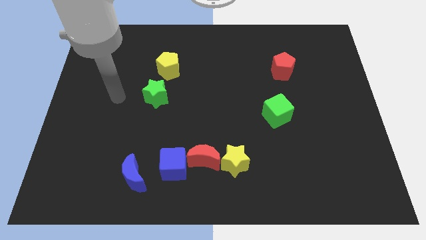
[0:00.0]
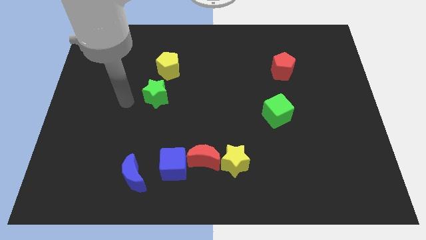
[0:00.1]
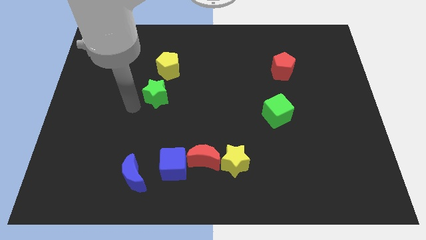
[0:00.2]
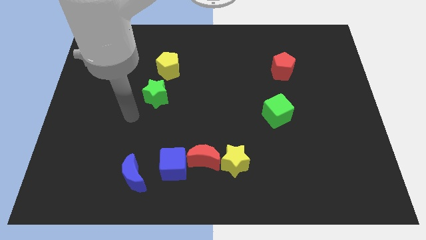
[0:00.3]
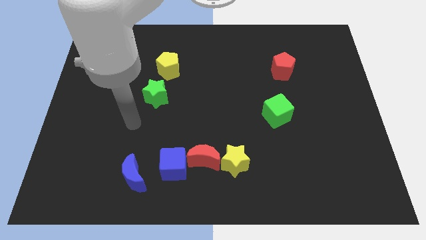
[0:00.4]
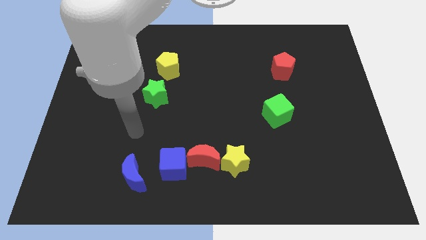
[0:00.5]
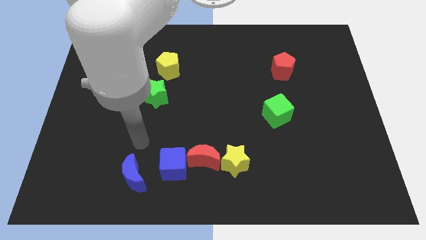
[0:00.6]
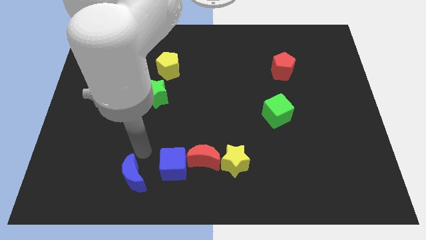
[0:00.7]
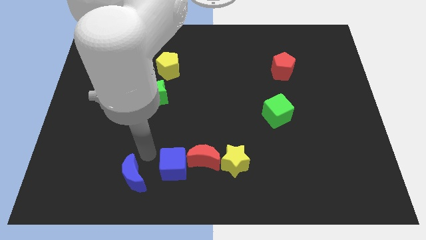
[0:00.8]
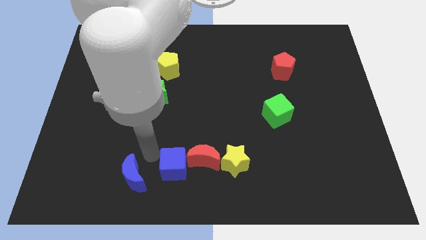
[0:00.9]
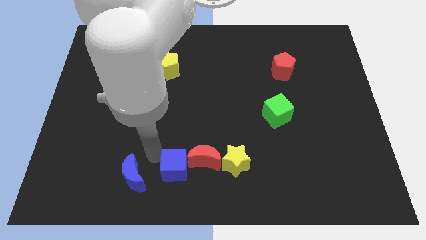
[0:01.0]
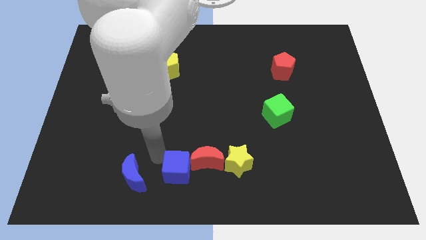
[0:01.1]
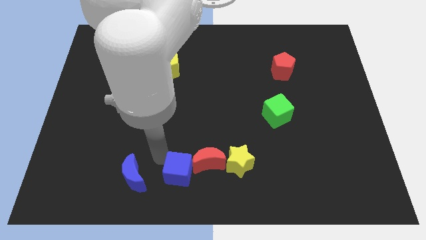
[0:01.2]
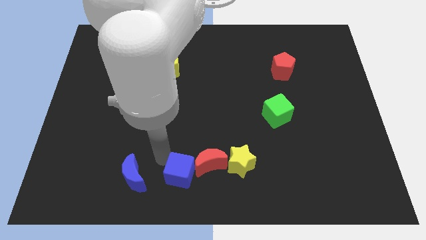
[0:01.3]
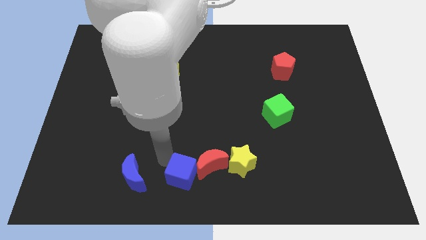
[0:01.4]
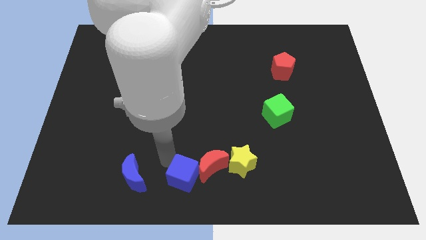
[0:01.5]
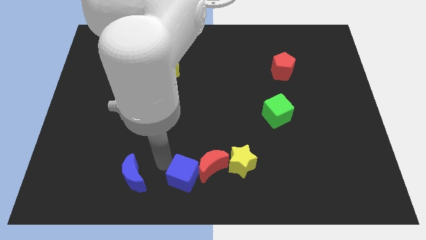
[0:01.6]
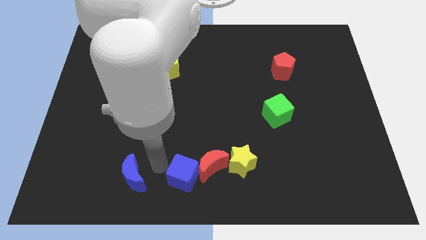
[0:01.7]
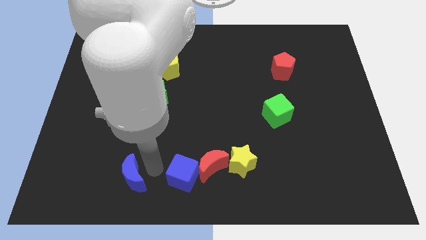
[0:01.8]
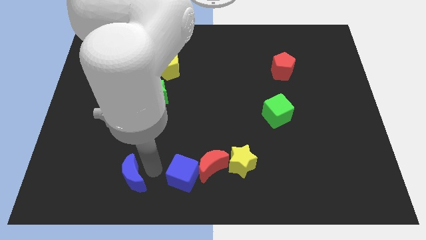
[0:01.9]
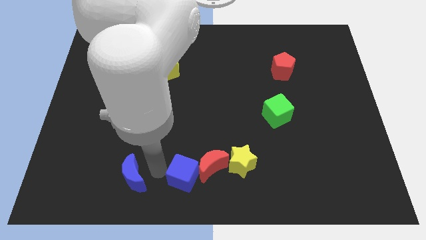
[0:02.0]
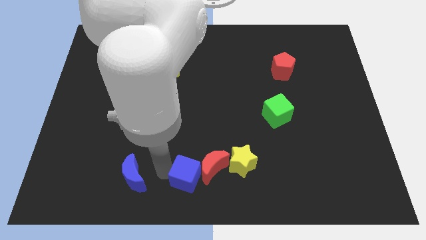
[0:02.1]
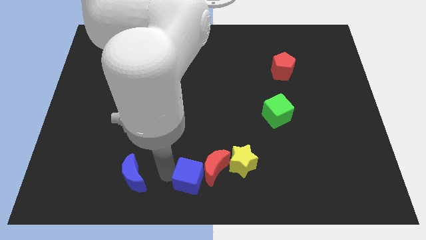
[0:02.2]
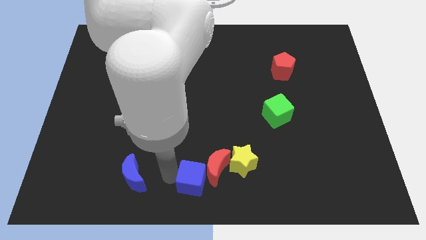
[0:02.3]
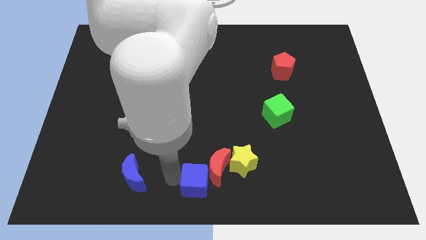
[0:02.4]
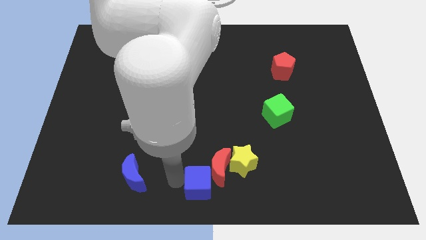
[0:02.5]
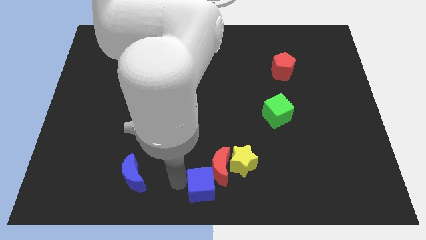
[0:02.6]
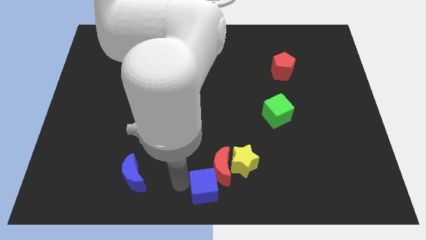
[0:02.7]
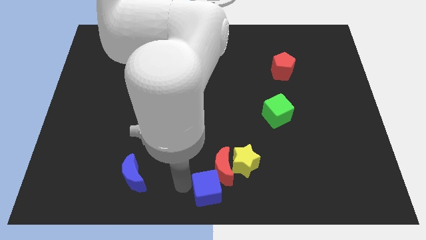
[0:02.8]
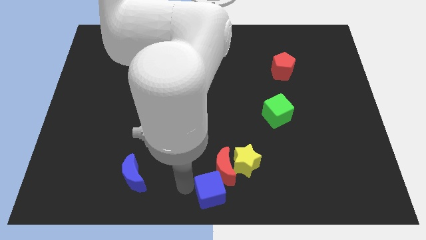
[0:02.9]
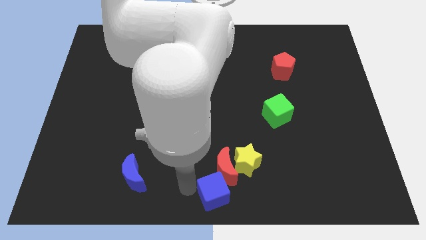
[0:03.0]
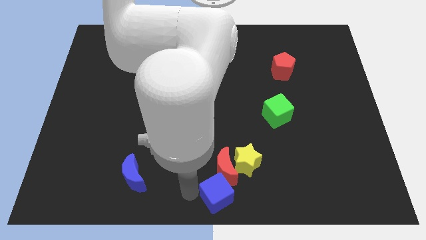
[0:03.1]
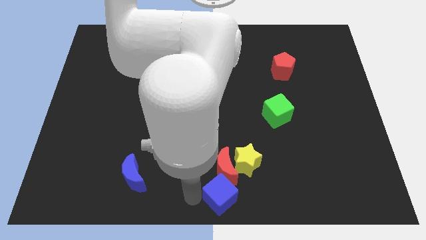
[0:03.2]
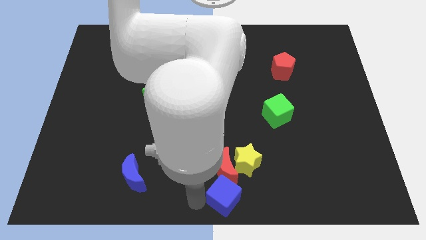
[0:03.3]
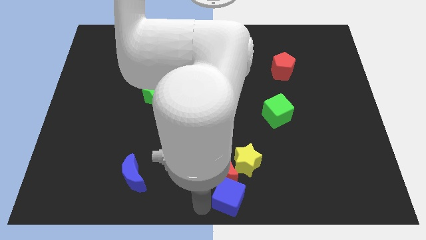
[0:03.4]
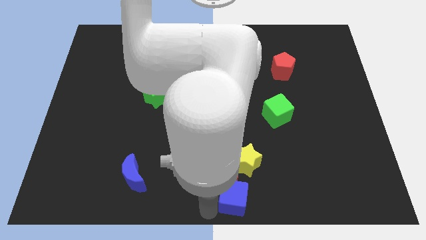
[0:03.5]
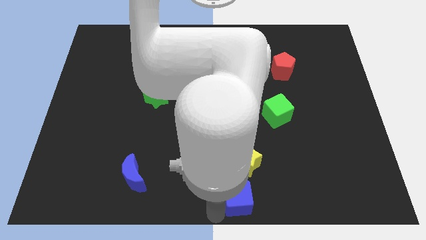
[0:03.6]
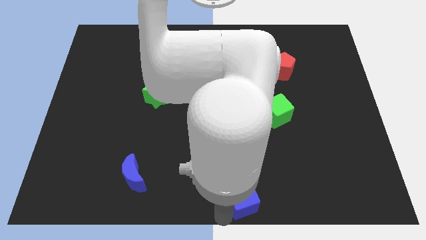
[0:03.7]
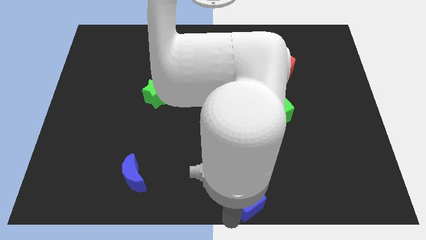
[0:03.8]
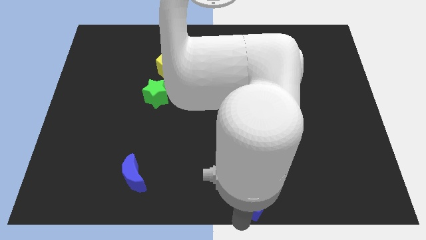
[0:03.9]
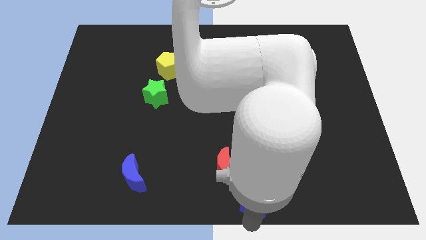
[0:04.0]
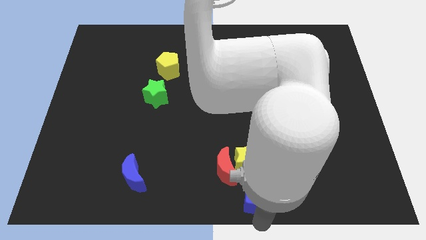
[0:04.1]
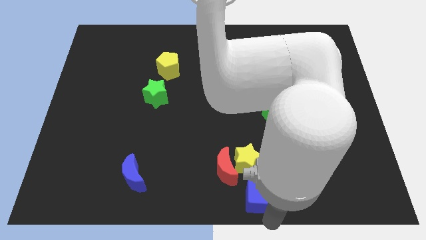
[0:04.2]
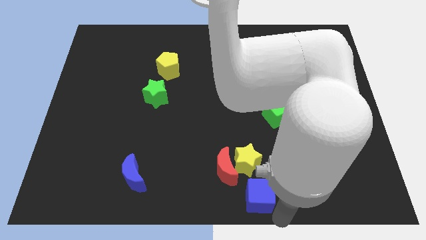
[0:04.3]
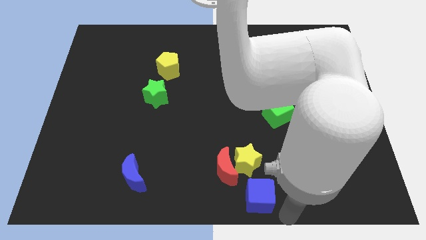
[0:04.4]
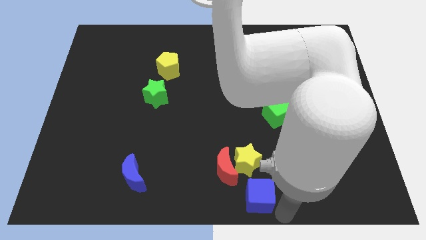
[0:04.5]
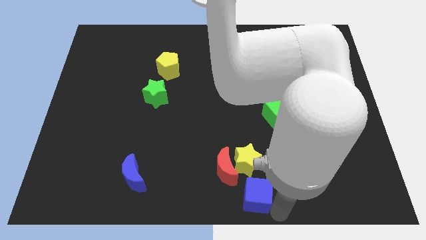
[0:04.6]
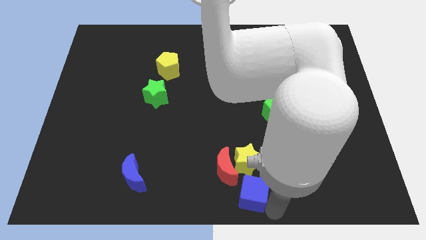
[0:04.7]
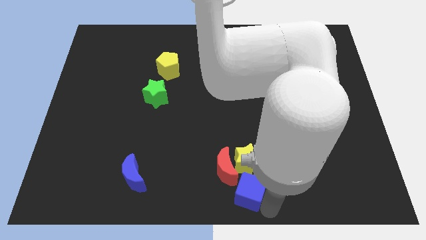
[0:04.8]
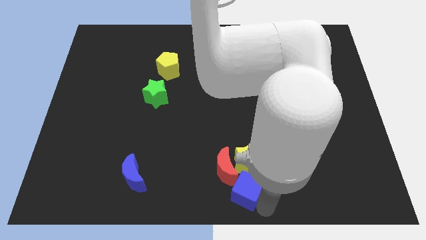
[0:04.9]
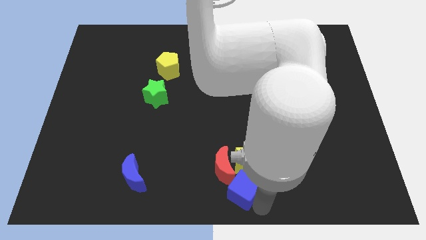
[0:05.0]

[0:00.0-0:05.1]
push the blue cube towards the yellow star

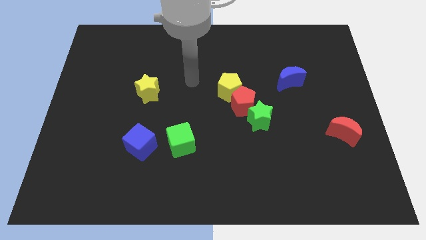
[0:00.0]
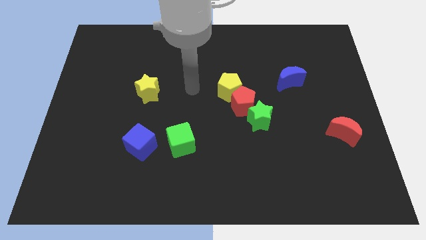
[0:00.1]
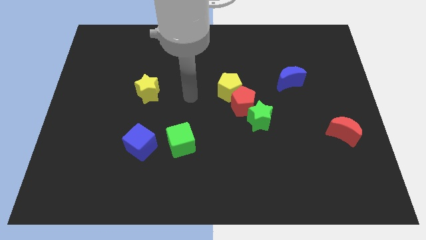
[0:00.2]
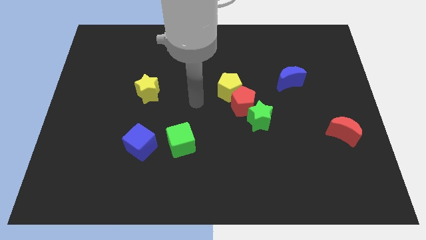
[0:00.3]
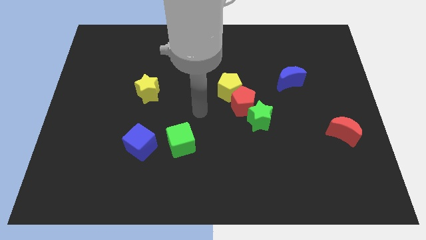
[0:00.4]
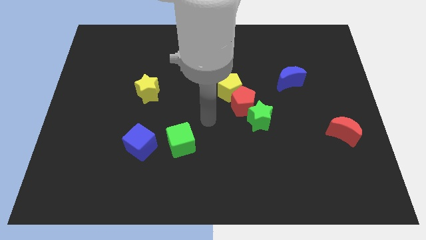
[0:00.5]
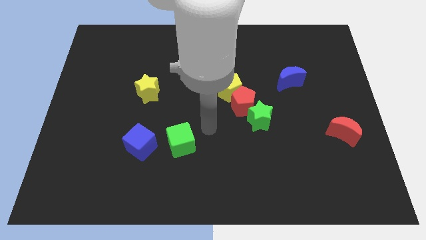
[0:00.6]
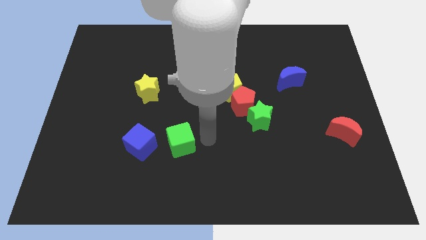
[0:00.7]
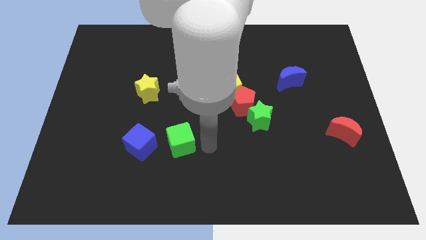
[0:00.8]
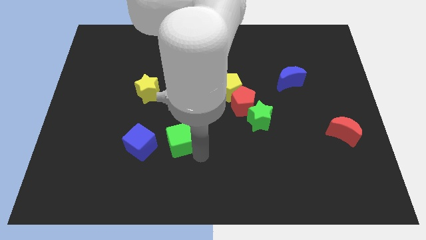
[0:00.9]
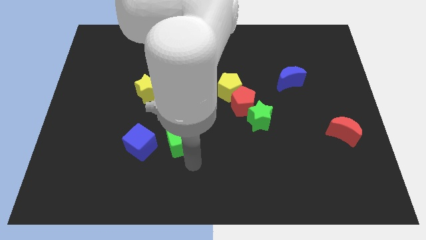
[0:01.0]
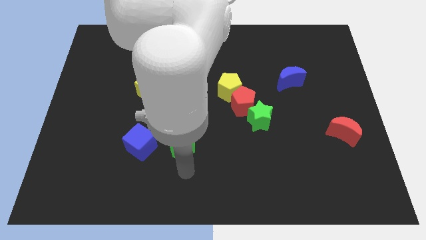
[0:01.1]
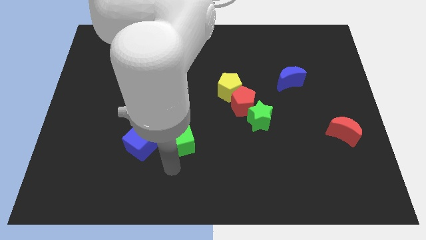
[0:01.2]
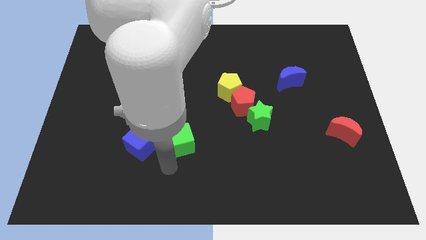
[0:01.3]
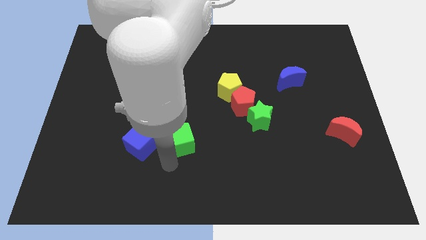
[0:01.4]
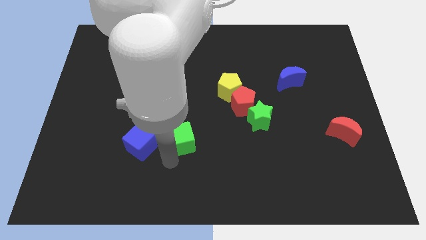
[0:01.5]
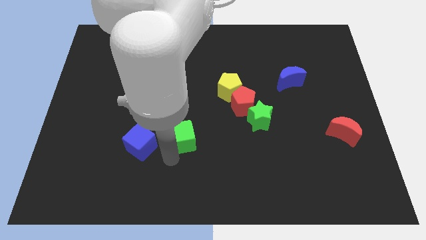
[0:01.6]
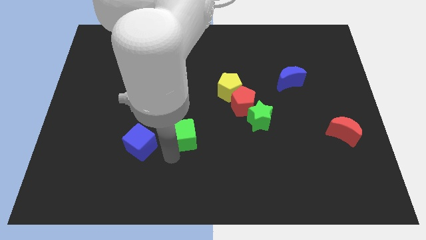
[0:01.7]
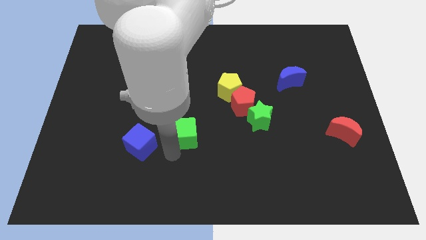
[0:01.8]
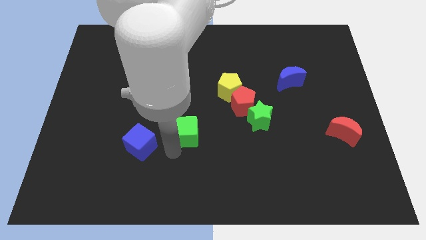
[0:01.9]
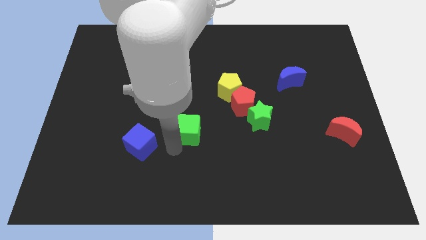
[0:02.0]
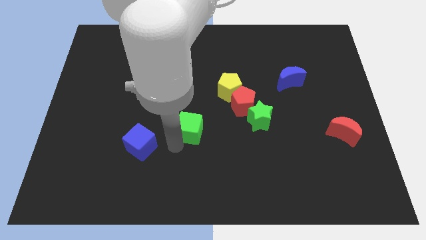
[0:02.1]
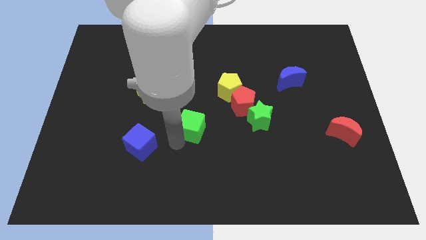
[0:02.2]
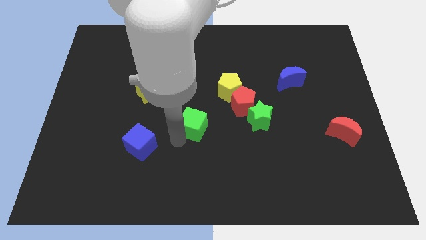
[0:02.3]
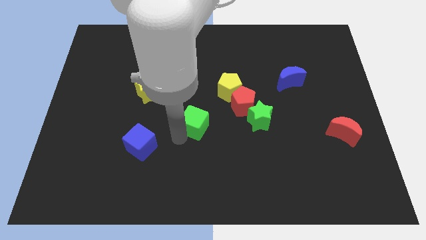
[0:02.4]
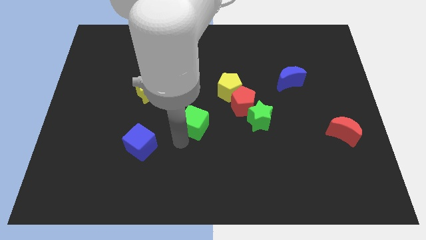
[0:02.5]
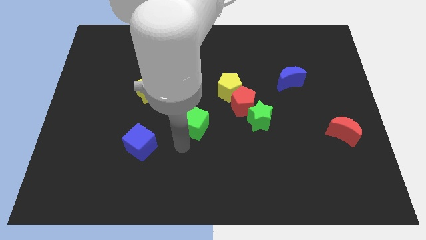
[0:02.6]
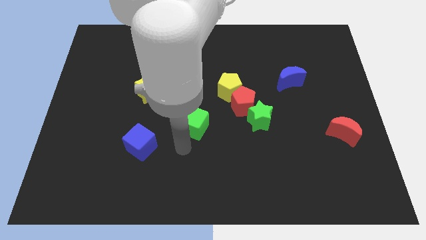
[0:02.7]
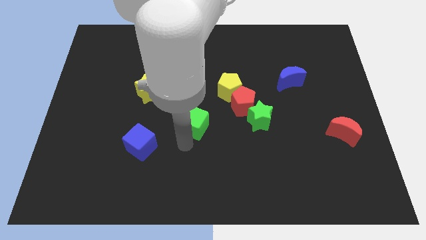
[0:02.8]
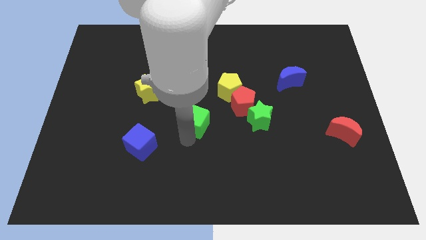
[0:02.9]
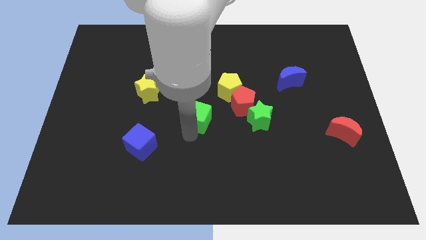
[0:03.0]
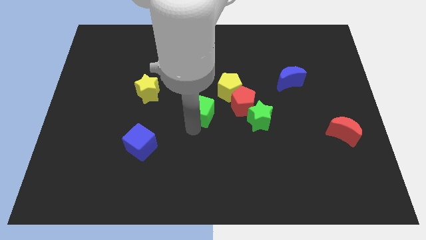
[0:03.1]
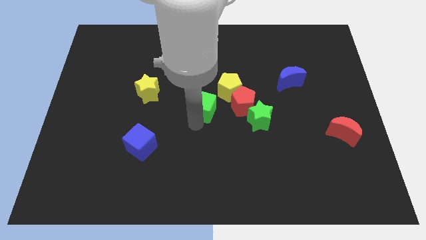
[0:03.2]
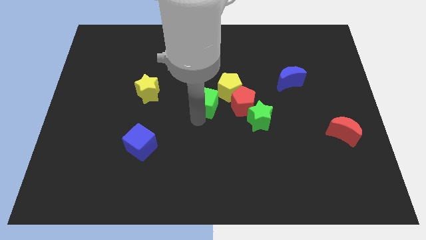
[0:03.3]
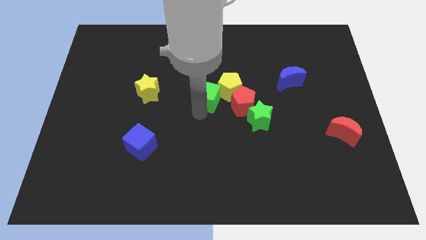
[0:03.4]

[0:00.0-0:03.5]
put the green cube close to the yellow pentagon
